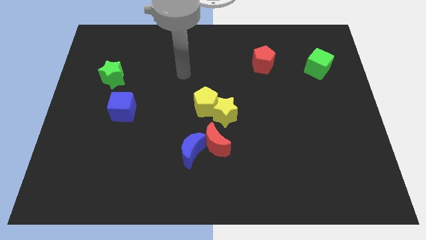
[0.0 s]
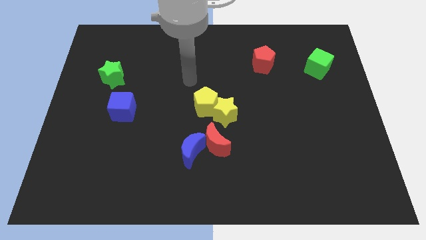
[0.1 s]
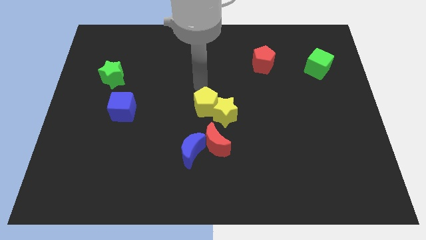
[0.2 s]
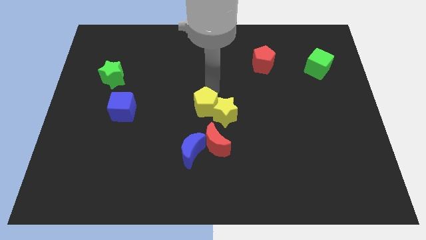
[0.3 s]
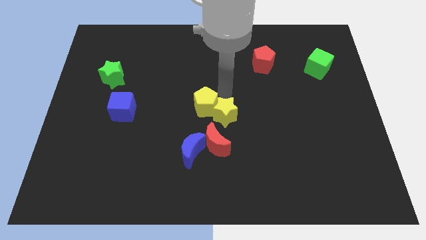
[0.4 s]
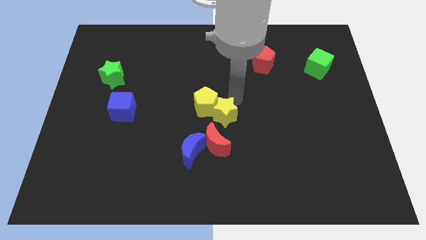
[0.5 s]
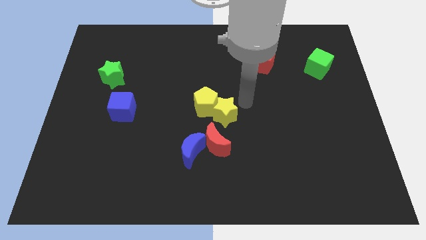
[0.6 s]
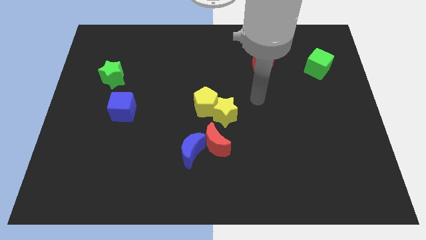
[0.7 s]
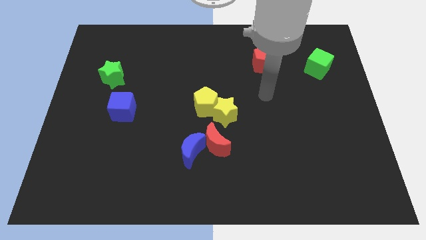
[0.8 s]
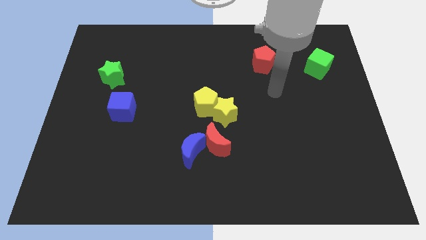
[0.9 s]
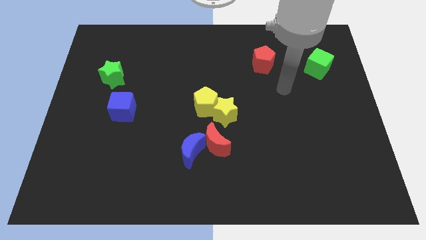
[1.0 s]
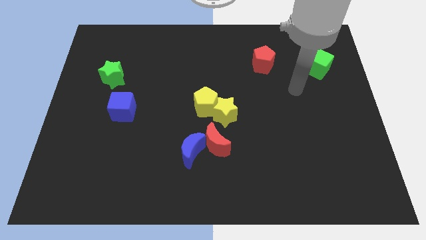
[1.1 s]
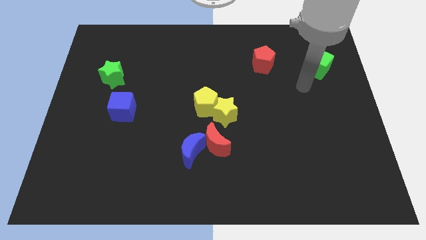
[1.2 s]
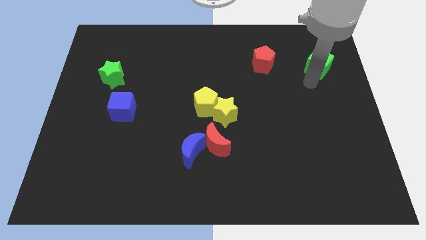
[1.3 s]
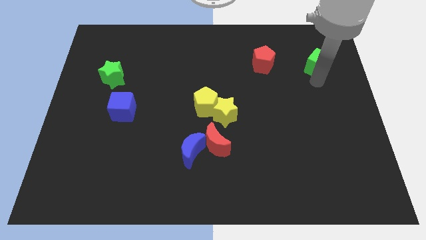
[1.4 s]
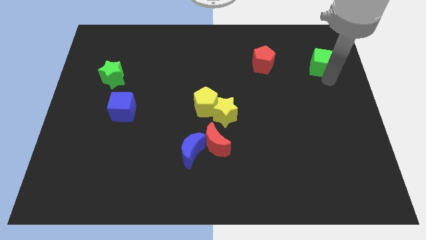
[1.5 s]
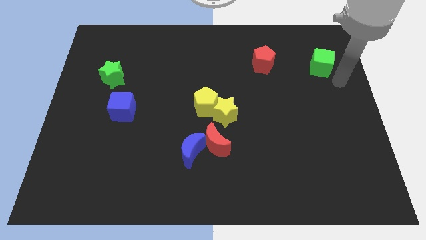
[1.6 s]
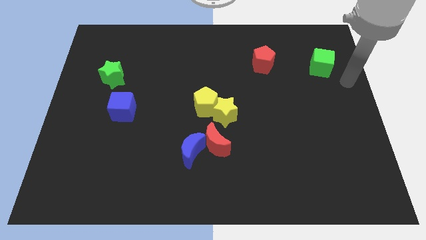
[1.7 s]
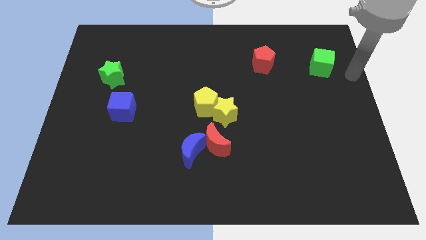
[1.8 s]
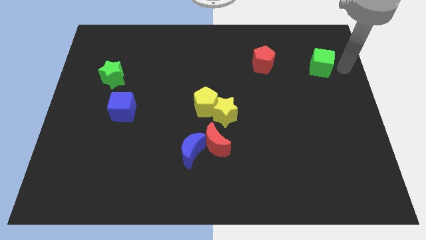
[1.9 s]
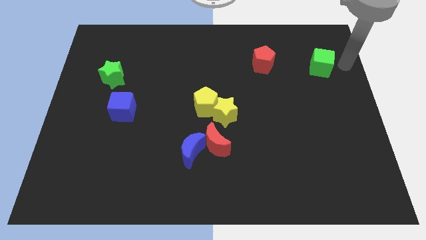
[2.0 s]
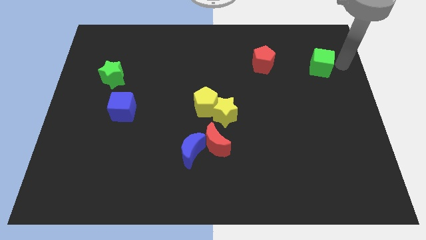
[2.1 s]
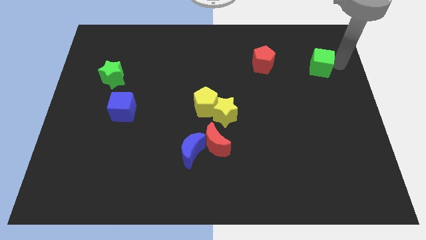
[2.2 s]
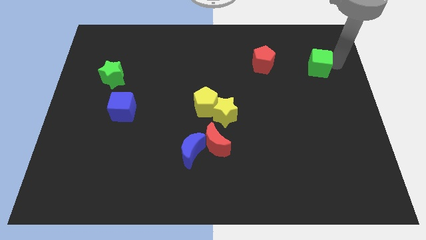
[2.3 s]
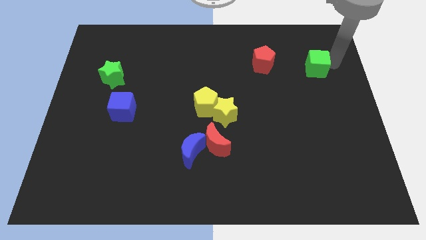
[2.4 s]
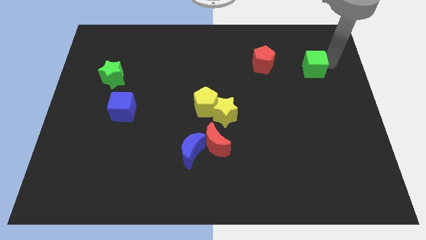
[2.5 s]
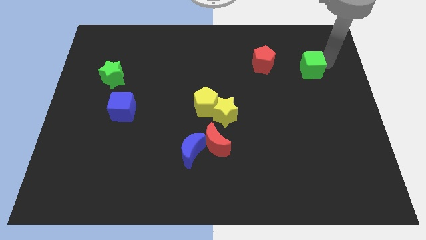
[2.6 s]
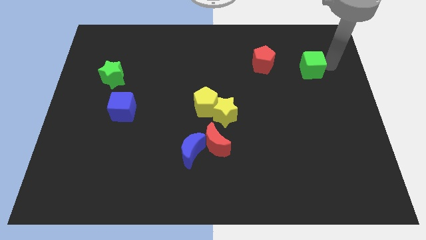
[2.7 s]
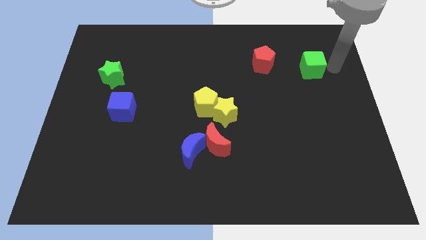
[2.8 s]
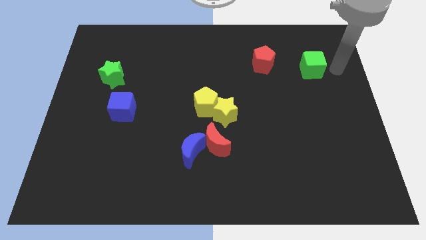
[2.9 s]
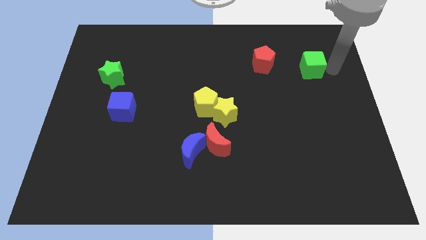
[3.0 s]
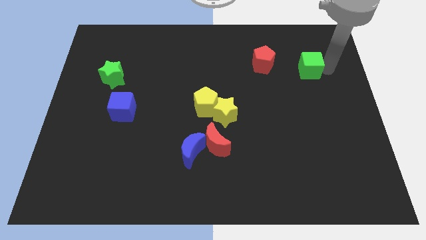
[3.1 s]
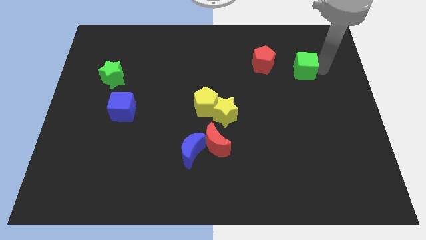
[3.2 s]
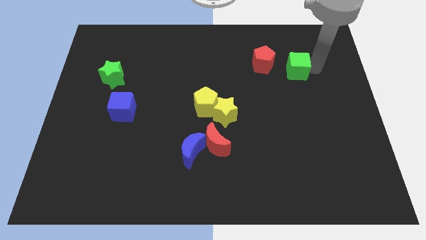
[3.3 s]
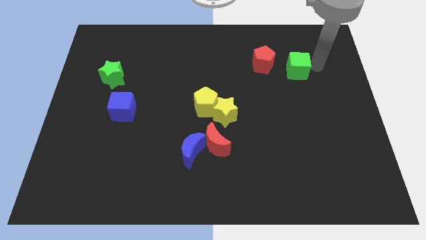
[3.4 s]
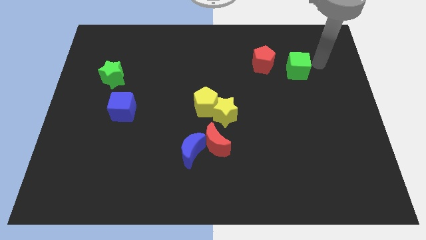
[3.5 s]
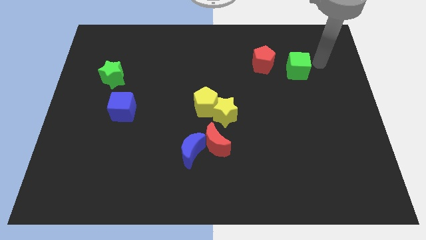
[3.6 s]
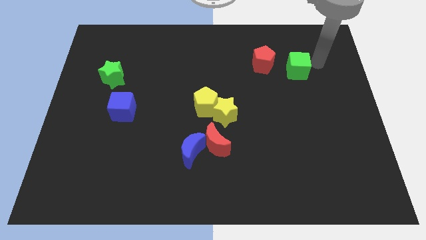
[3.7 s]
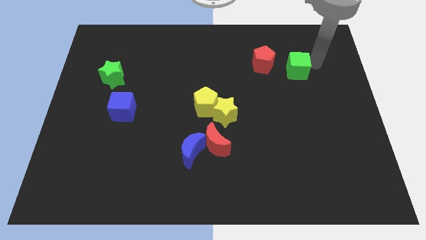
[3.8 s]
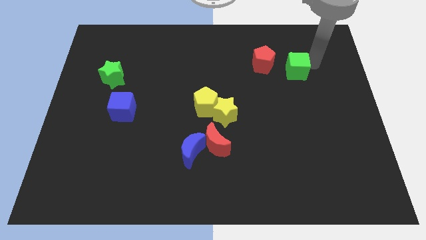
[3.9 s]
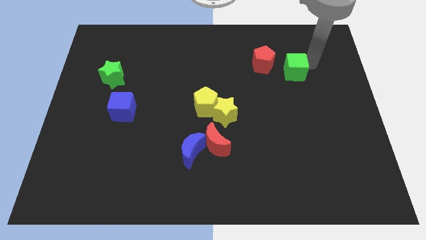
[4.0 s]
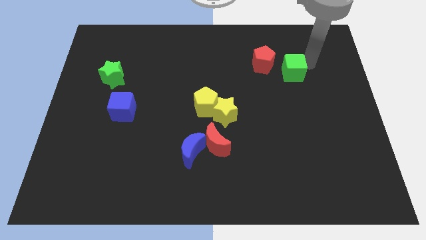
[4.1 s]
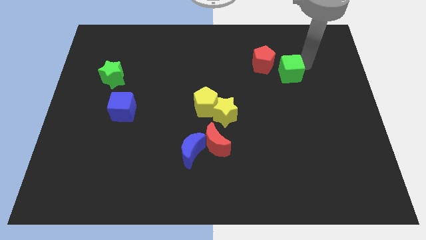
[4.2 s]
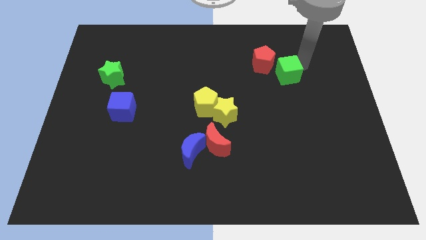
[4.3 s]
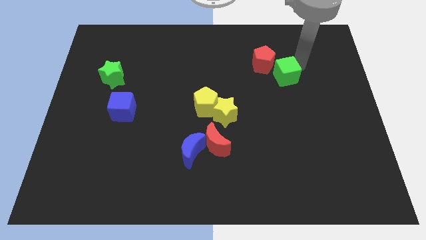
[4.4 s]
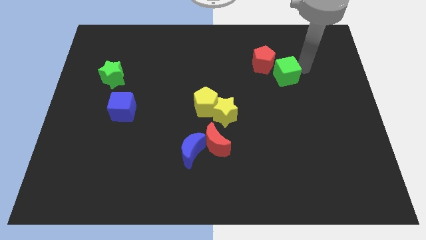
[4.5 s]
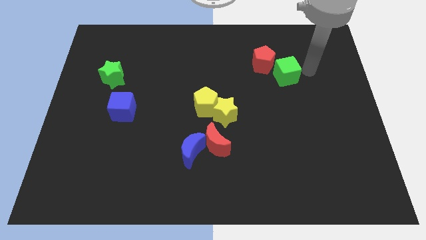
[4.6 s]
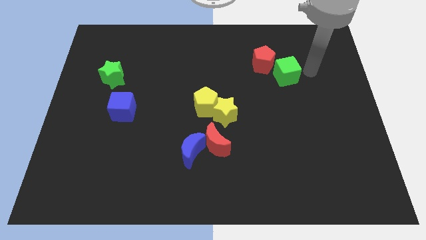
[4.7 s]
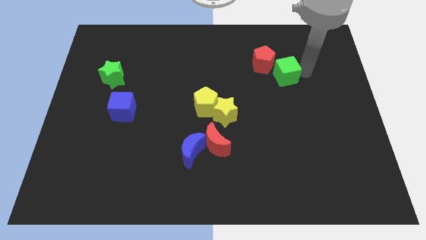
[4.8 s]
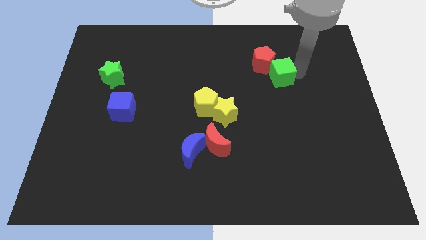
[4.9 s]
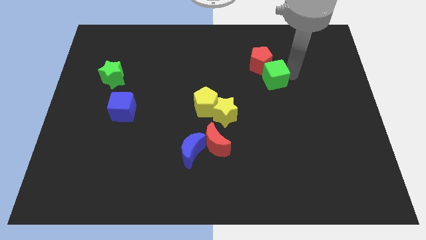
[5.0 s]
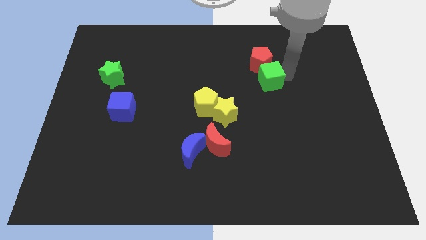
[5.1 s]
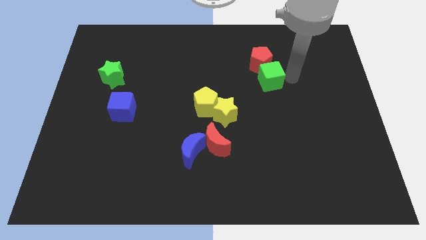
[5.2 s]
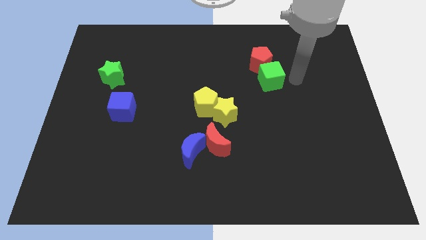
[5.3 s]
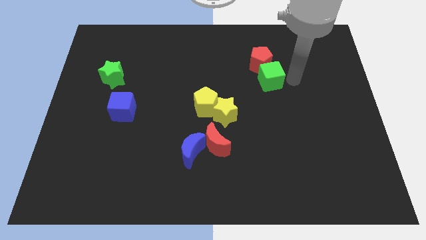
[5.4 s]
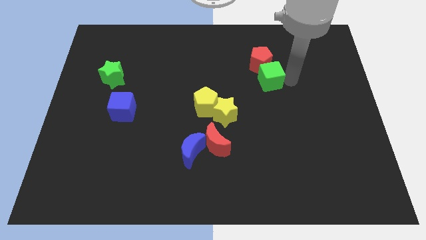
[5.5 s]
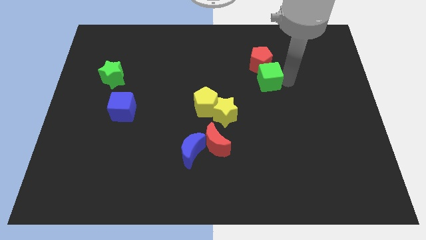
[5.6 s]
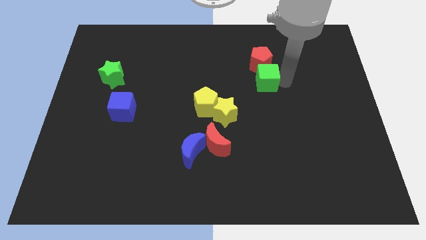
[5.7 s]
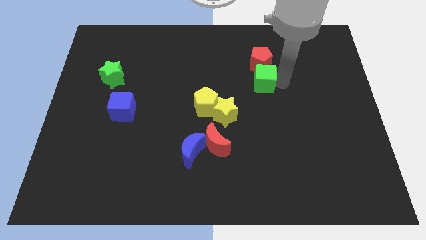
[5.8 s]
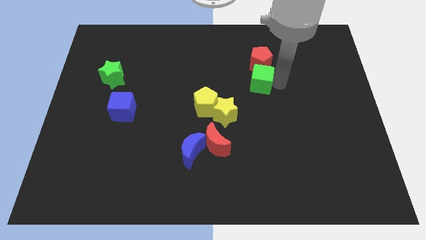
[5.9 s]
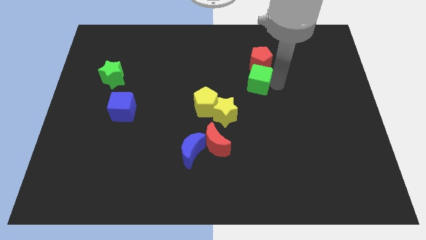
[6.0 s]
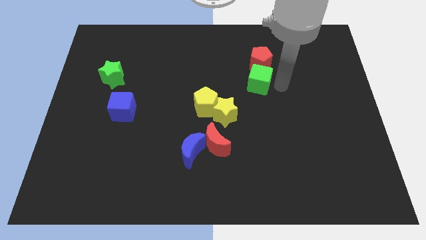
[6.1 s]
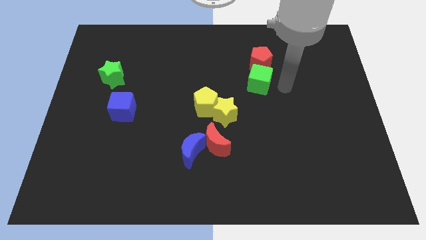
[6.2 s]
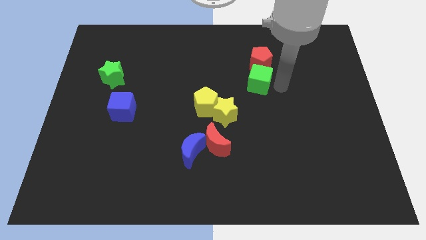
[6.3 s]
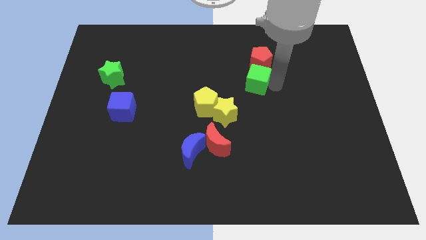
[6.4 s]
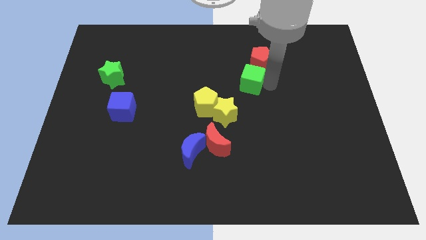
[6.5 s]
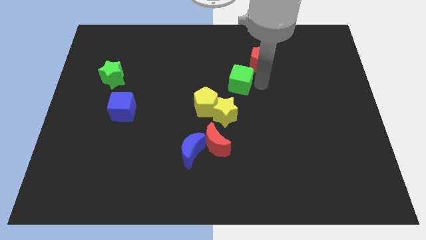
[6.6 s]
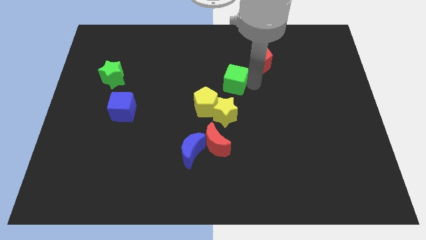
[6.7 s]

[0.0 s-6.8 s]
move the green cube to the left

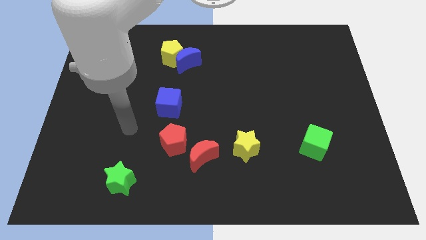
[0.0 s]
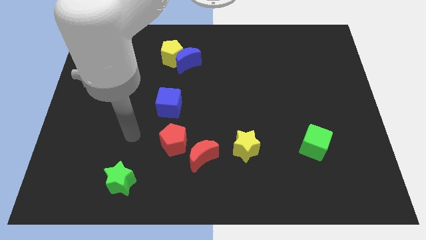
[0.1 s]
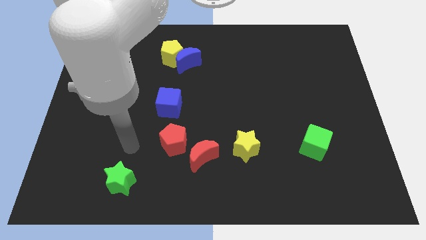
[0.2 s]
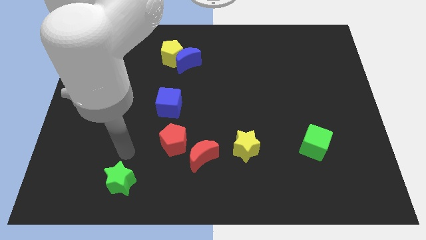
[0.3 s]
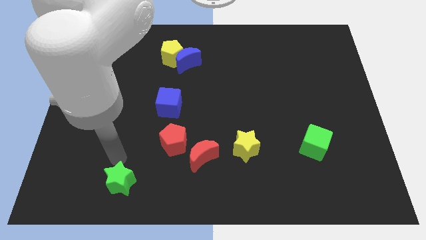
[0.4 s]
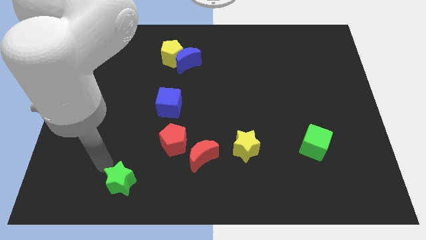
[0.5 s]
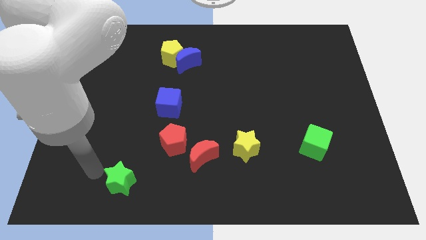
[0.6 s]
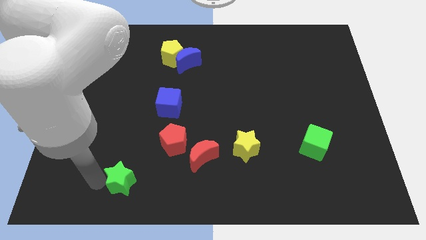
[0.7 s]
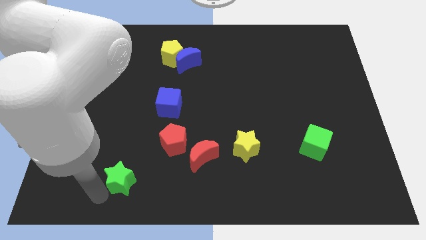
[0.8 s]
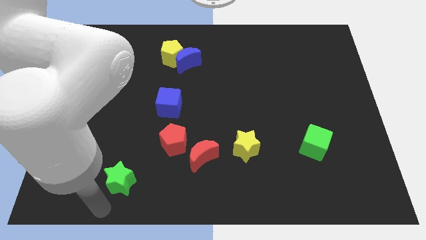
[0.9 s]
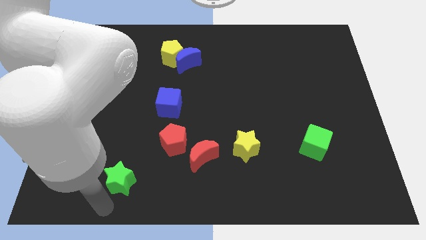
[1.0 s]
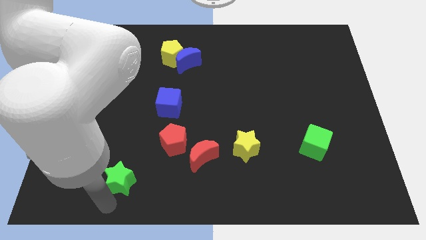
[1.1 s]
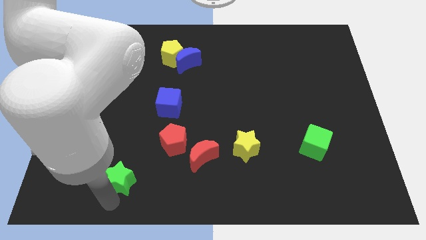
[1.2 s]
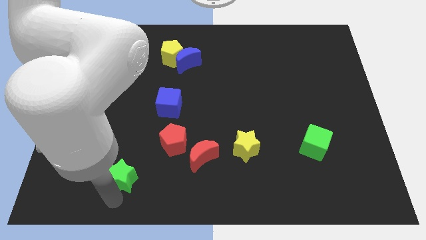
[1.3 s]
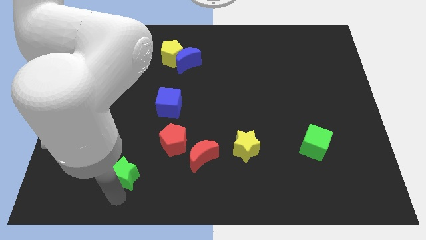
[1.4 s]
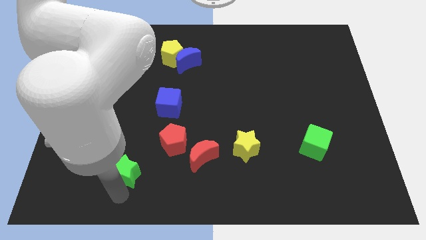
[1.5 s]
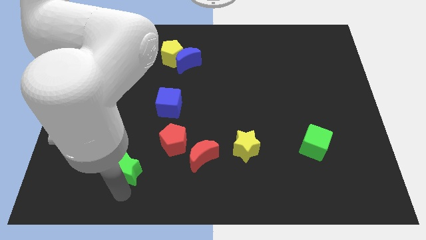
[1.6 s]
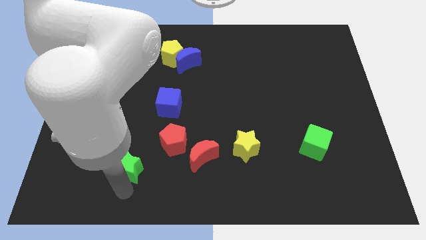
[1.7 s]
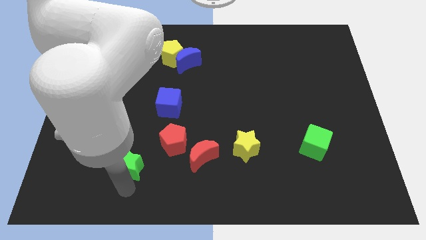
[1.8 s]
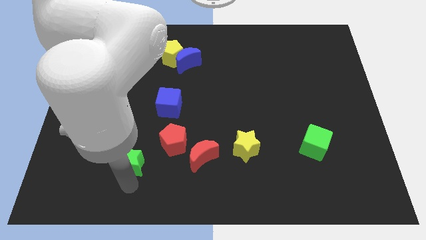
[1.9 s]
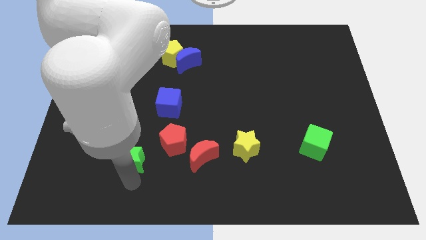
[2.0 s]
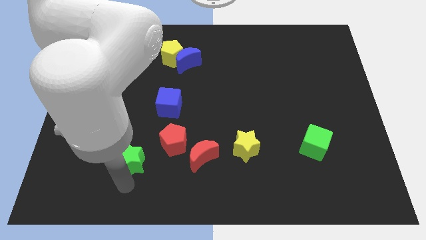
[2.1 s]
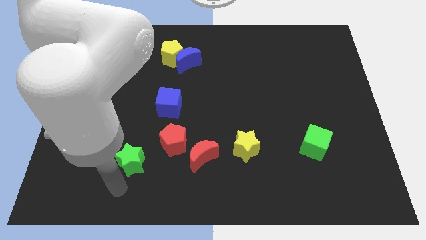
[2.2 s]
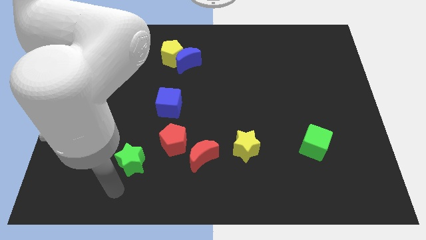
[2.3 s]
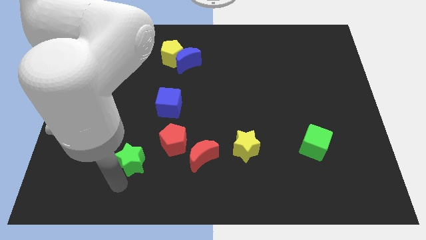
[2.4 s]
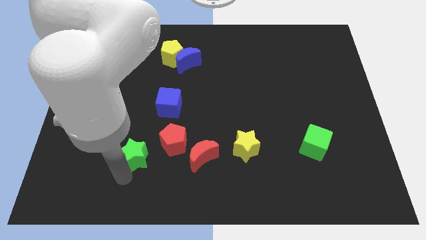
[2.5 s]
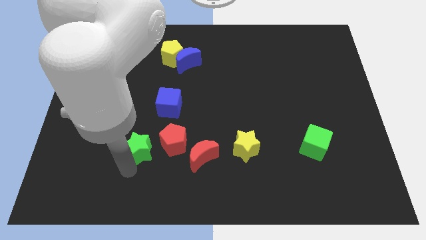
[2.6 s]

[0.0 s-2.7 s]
slightly slide the green star up and then right
